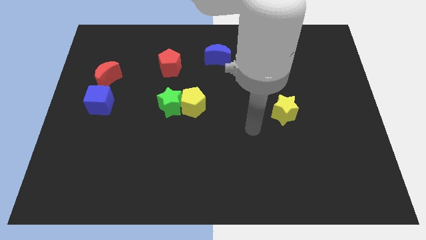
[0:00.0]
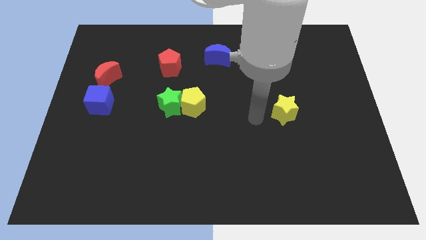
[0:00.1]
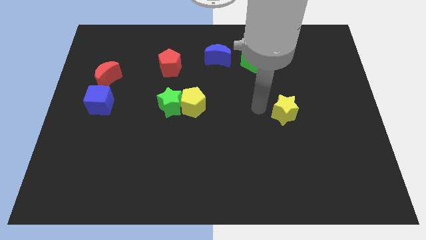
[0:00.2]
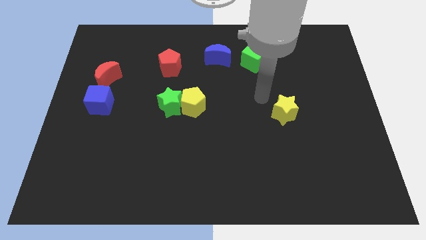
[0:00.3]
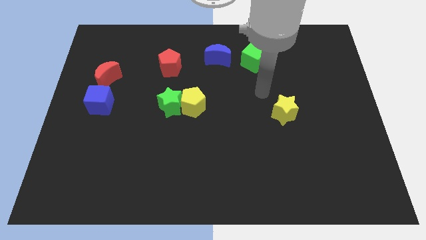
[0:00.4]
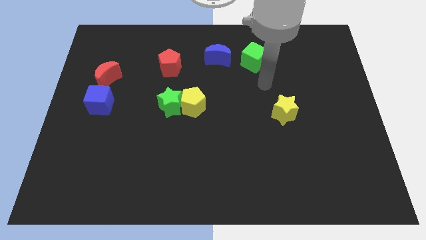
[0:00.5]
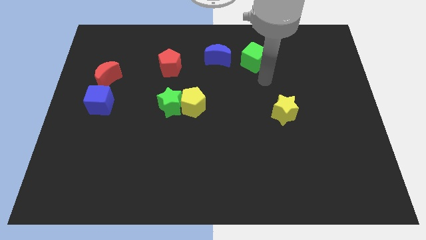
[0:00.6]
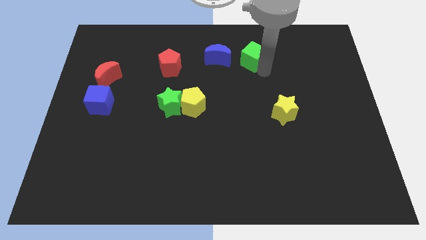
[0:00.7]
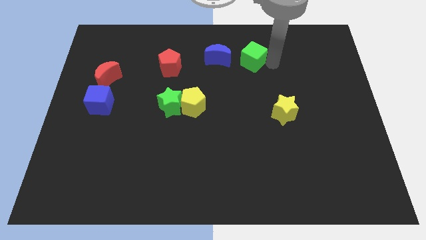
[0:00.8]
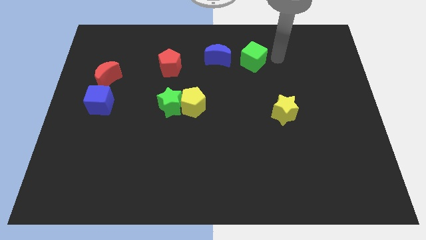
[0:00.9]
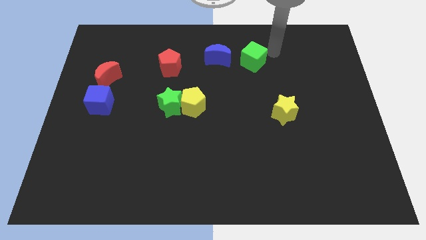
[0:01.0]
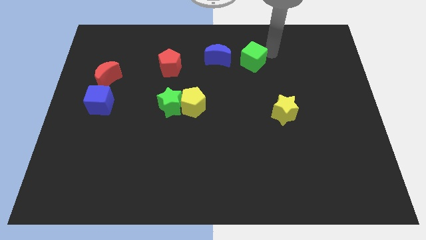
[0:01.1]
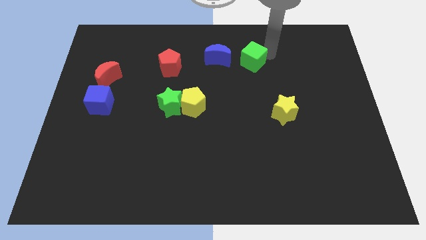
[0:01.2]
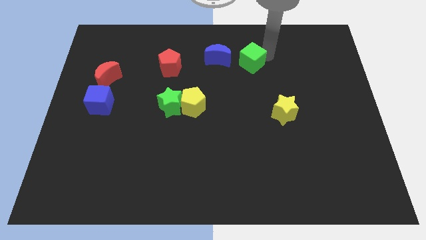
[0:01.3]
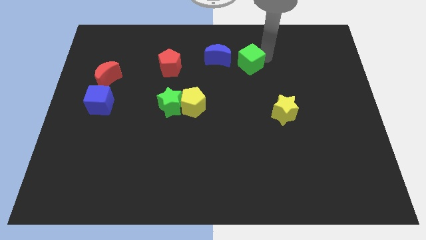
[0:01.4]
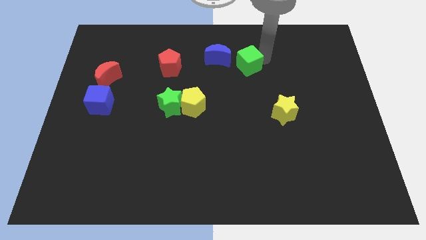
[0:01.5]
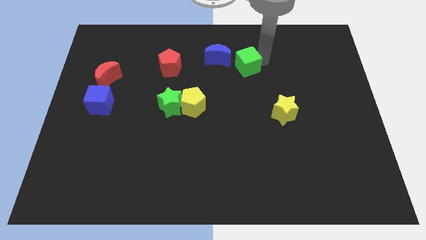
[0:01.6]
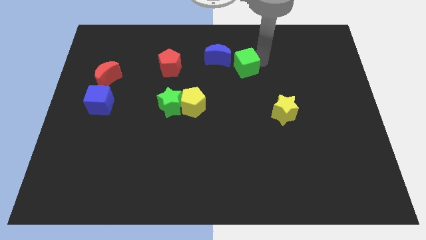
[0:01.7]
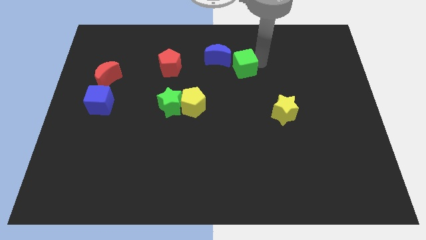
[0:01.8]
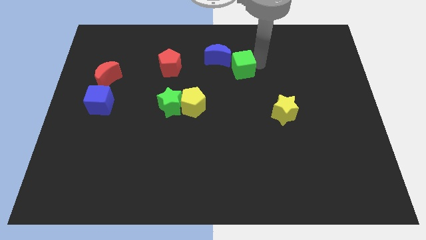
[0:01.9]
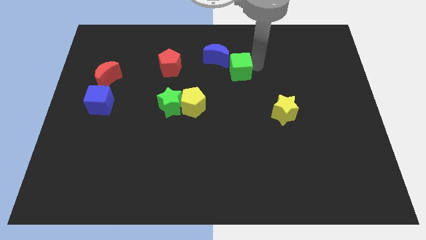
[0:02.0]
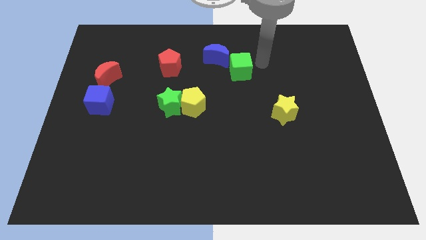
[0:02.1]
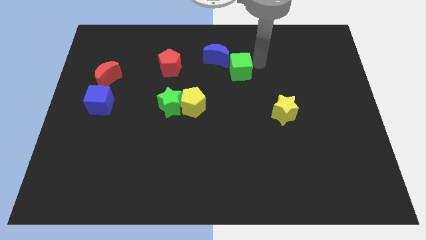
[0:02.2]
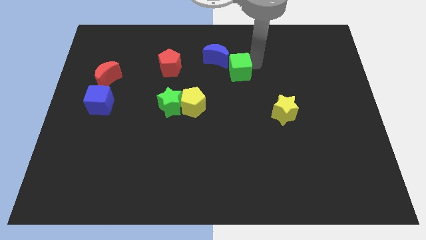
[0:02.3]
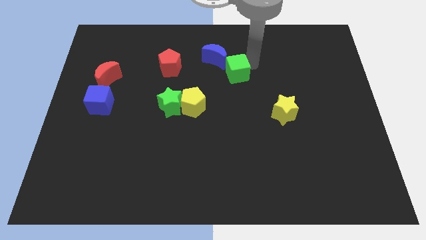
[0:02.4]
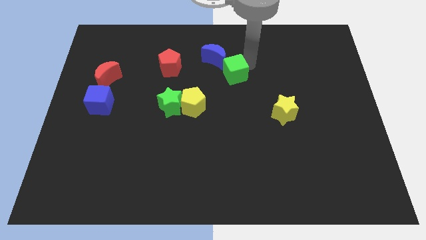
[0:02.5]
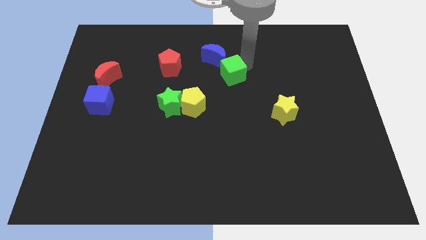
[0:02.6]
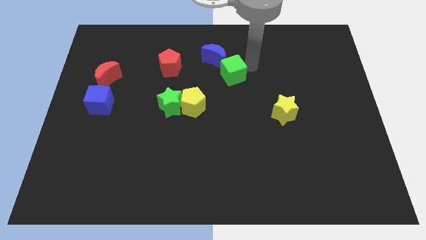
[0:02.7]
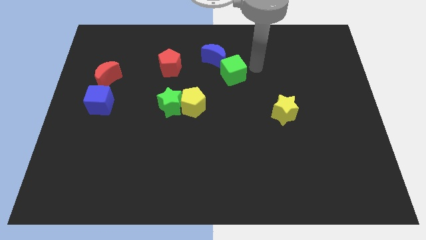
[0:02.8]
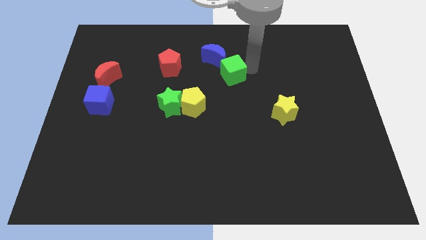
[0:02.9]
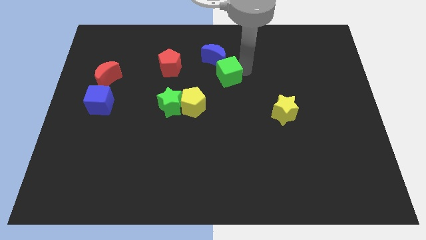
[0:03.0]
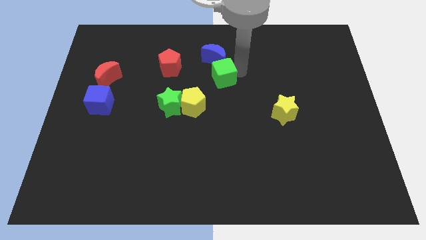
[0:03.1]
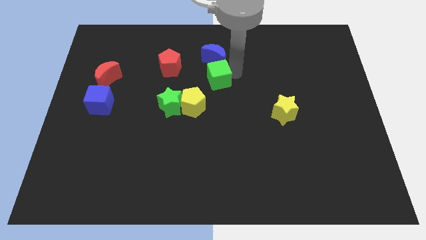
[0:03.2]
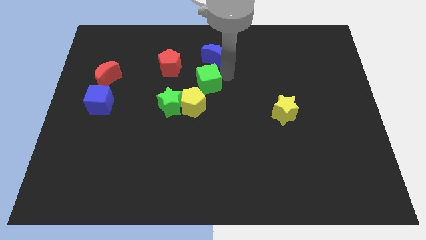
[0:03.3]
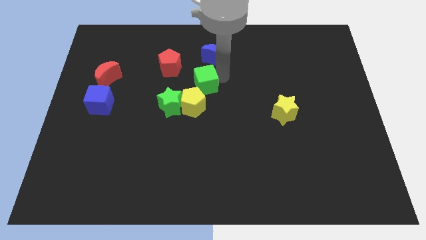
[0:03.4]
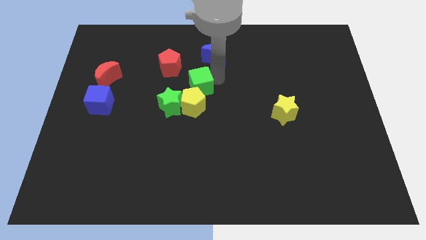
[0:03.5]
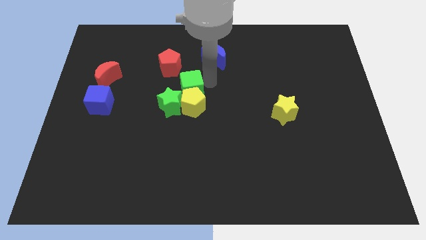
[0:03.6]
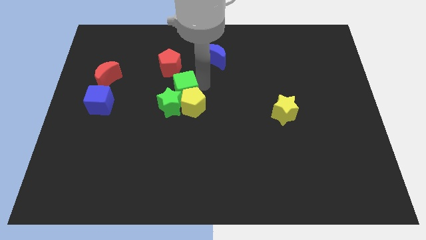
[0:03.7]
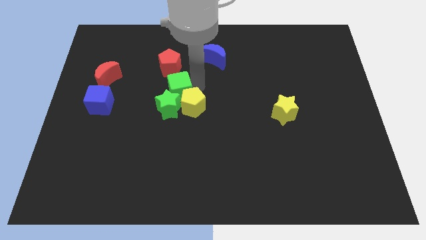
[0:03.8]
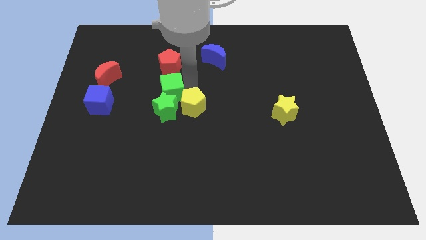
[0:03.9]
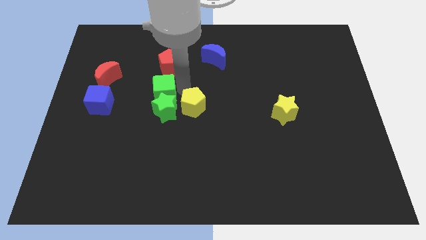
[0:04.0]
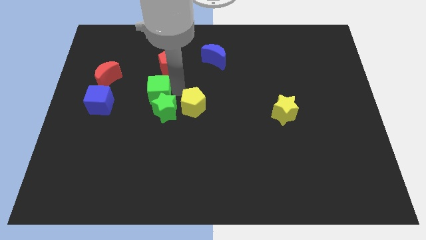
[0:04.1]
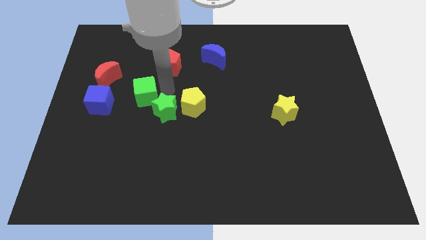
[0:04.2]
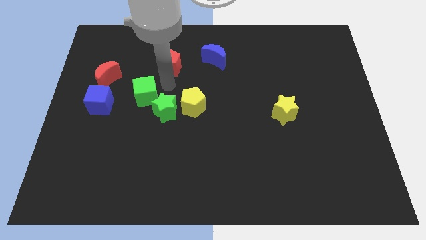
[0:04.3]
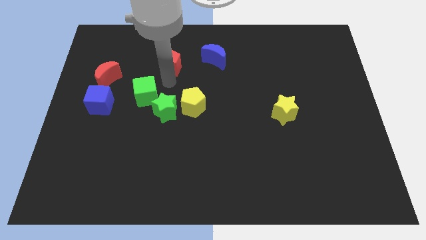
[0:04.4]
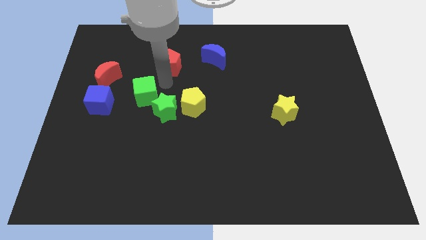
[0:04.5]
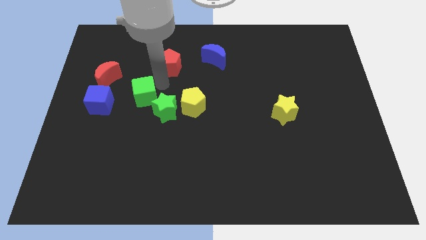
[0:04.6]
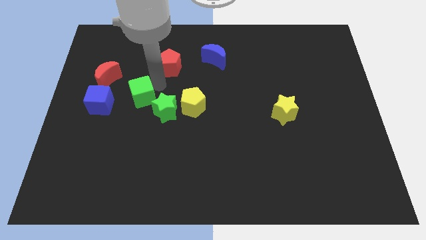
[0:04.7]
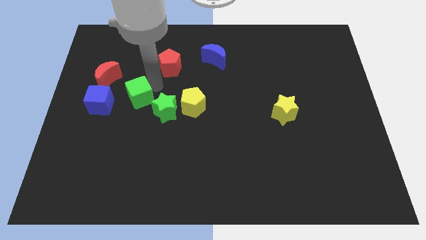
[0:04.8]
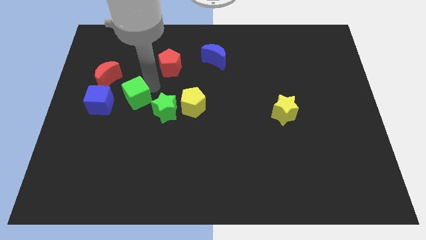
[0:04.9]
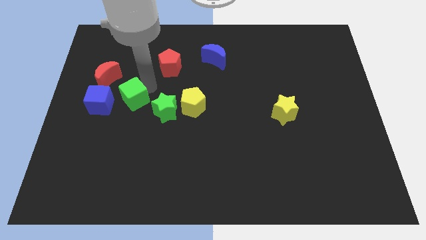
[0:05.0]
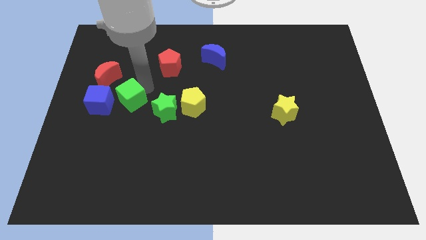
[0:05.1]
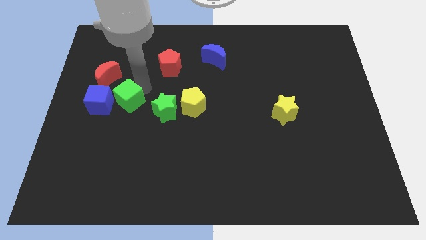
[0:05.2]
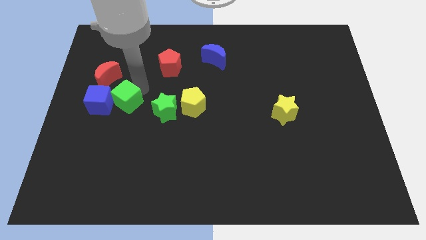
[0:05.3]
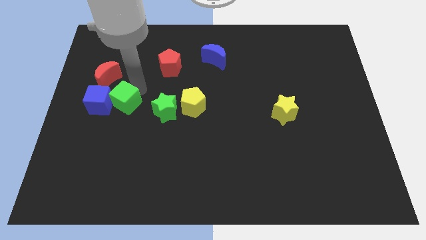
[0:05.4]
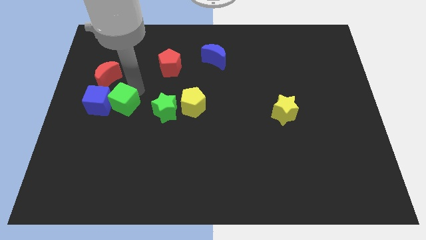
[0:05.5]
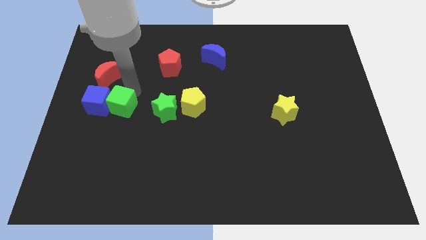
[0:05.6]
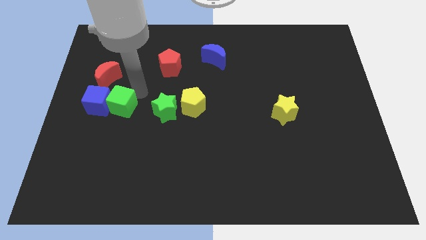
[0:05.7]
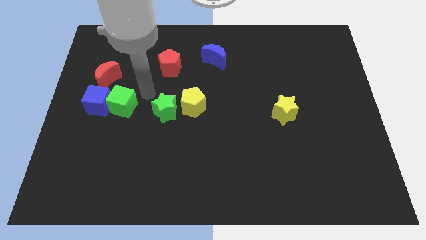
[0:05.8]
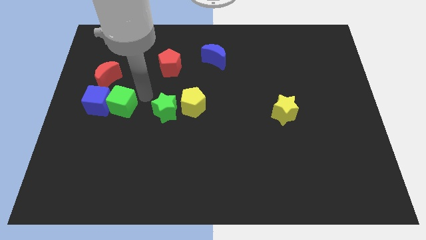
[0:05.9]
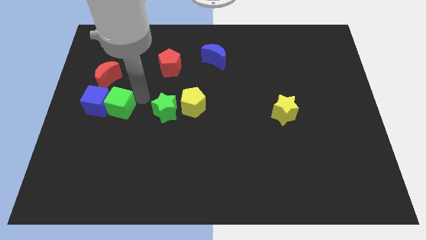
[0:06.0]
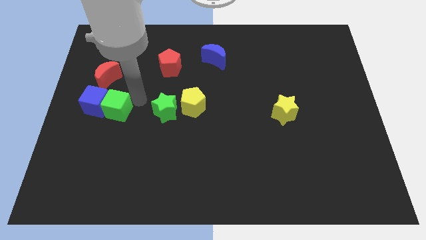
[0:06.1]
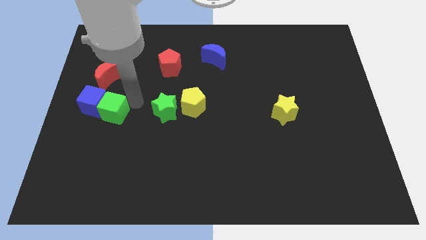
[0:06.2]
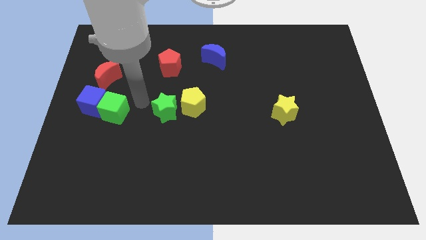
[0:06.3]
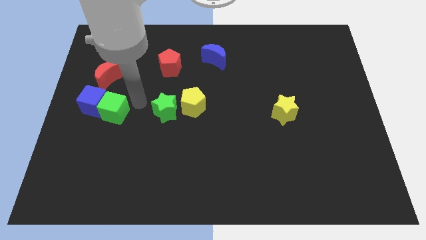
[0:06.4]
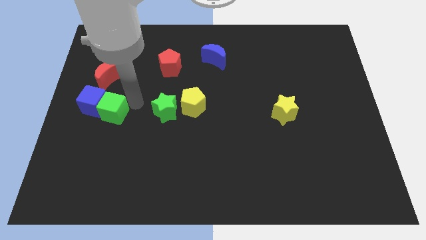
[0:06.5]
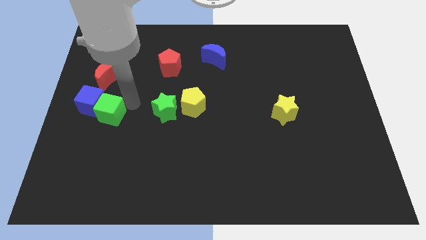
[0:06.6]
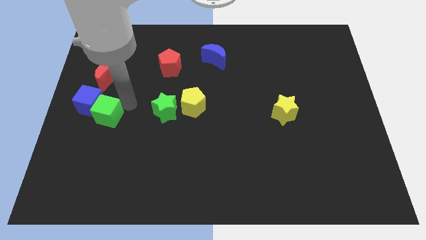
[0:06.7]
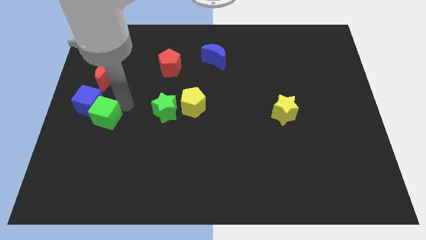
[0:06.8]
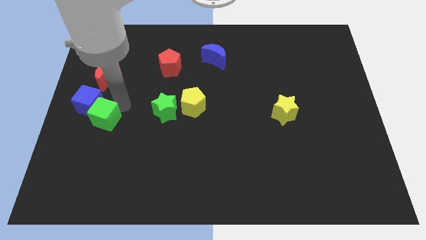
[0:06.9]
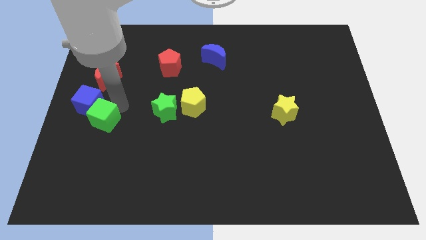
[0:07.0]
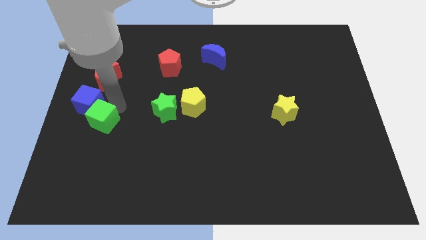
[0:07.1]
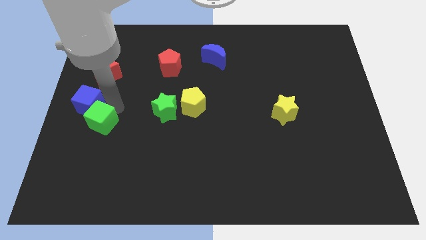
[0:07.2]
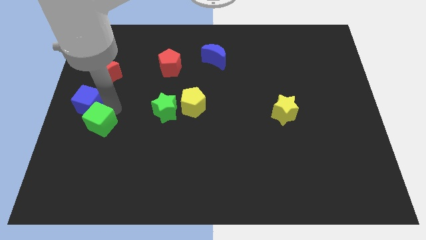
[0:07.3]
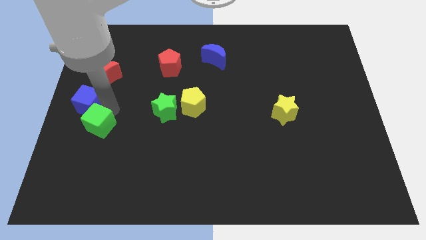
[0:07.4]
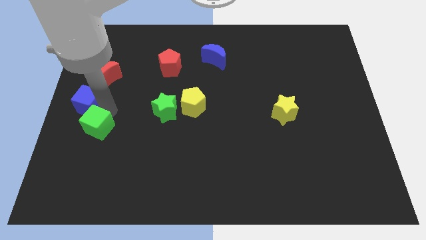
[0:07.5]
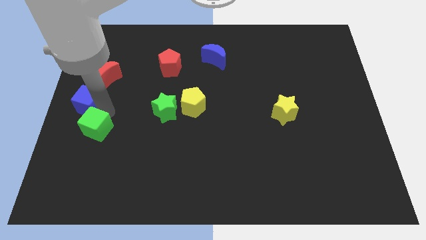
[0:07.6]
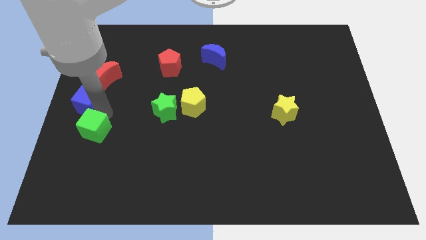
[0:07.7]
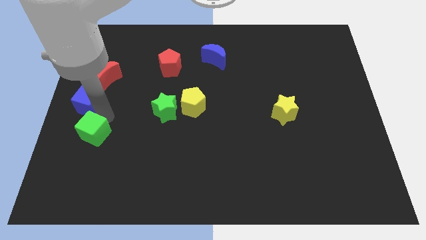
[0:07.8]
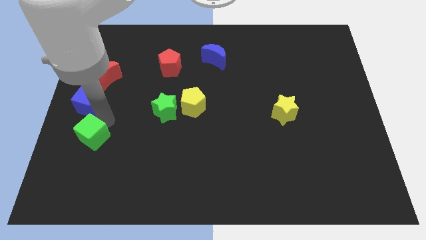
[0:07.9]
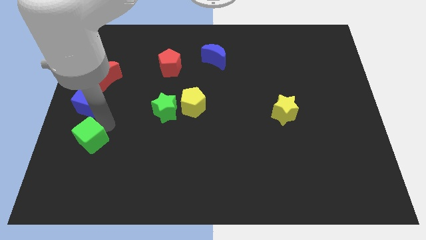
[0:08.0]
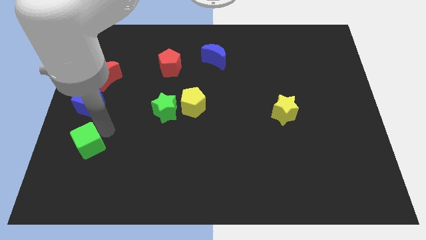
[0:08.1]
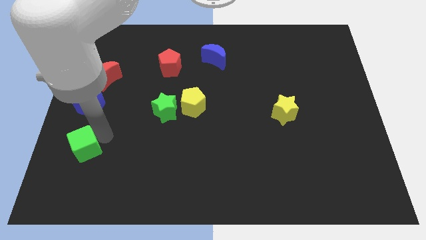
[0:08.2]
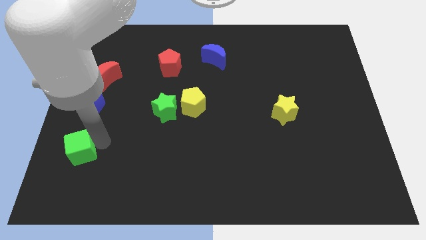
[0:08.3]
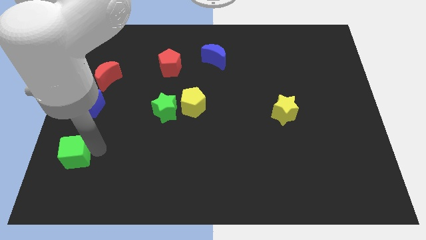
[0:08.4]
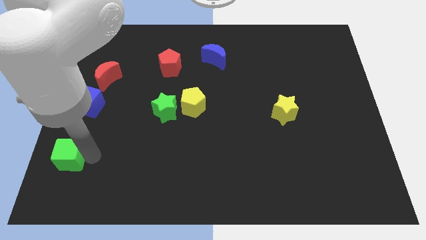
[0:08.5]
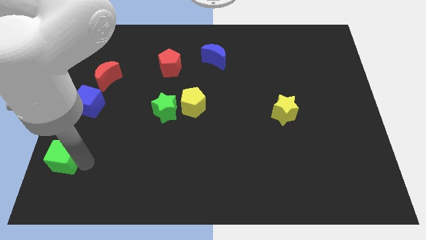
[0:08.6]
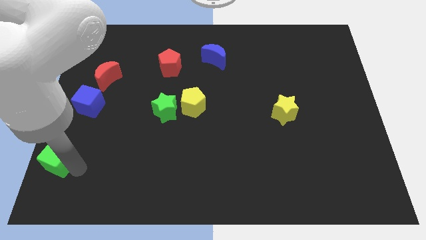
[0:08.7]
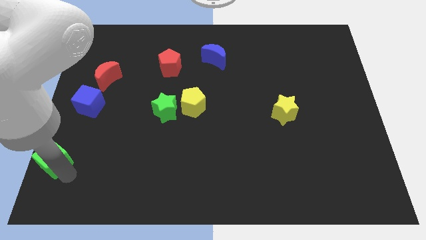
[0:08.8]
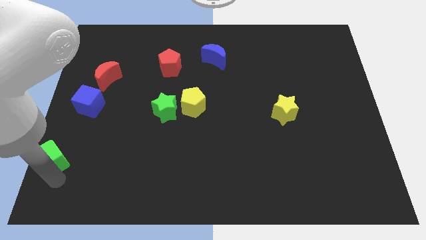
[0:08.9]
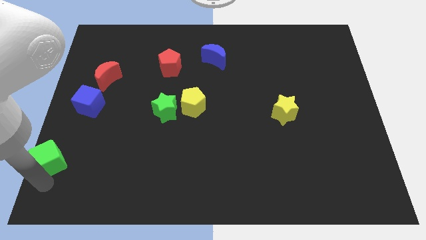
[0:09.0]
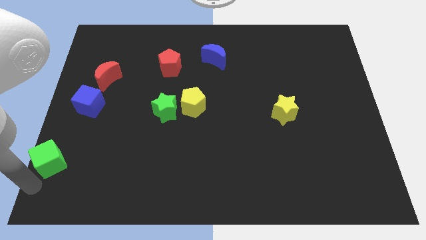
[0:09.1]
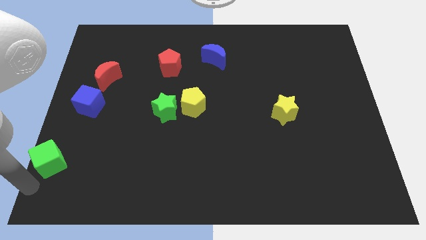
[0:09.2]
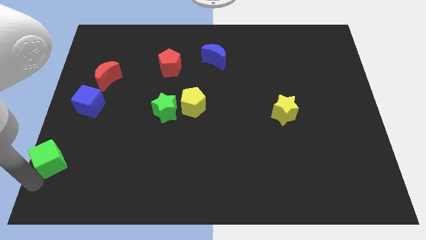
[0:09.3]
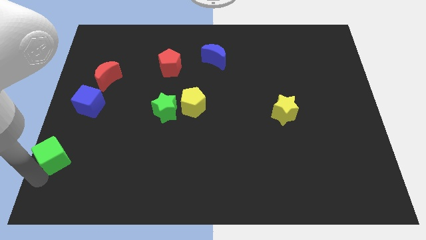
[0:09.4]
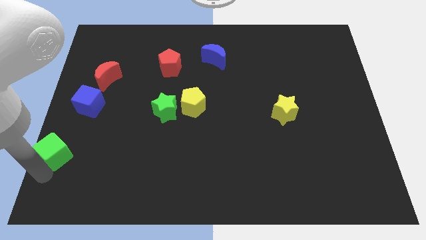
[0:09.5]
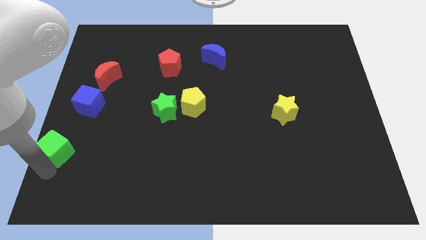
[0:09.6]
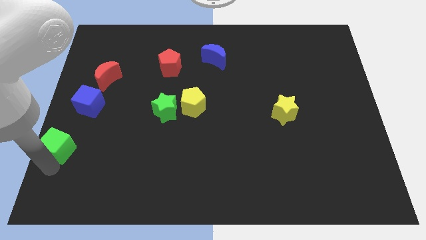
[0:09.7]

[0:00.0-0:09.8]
move the green cube to the center left
